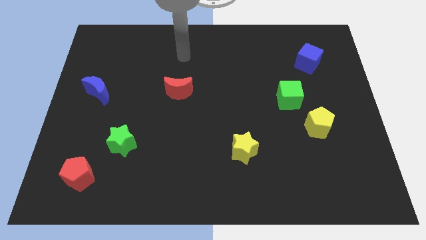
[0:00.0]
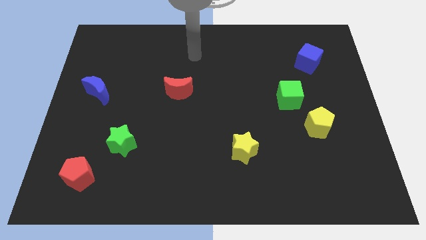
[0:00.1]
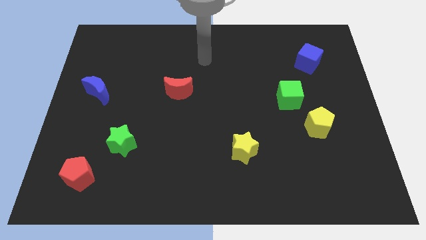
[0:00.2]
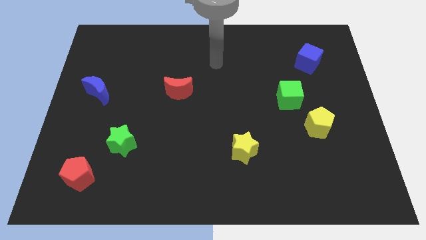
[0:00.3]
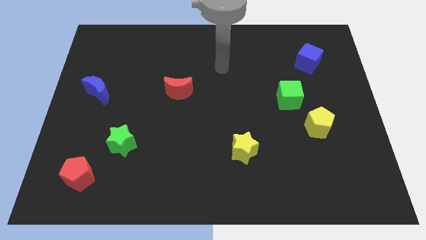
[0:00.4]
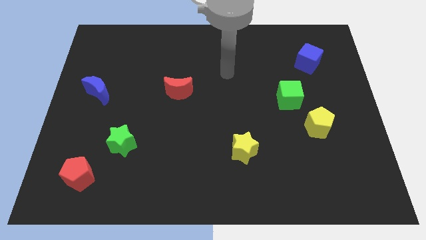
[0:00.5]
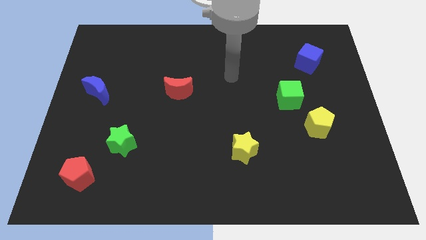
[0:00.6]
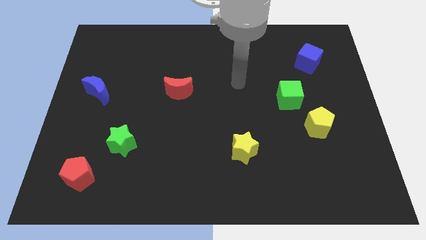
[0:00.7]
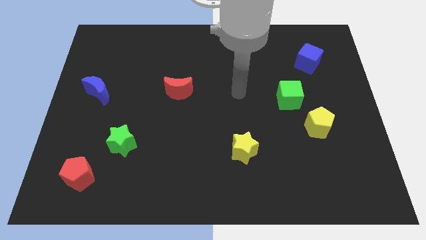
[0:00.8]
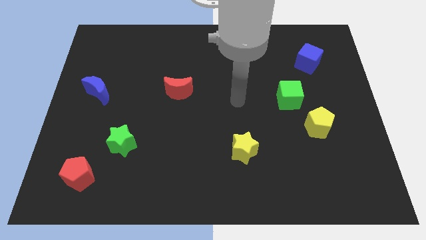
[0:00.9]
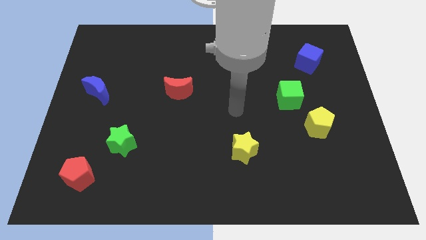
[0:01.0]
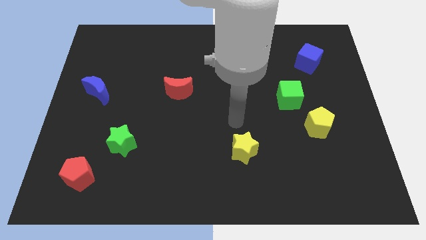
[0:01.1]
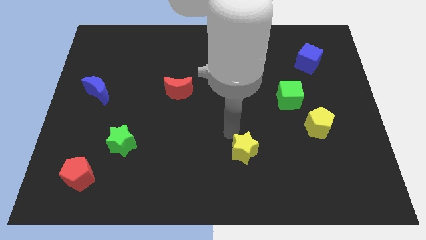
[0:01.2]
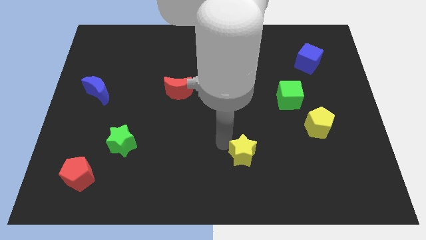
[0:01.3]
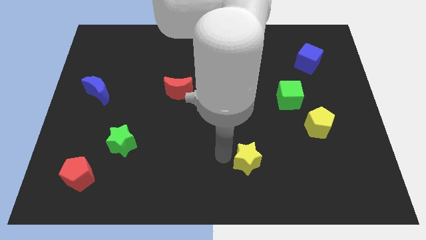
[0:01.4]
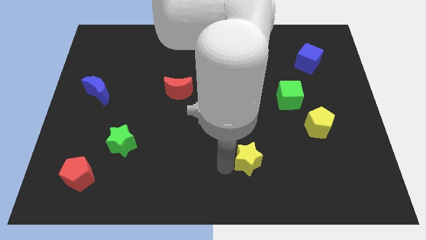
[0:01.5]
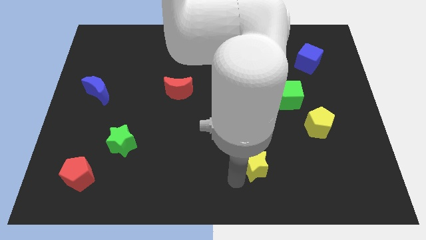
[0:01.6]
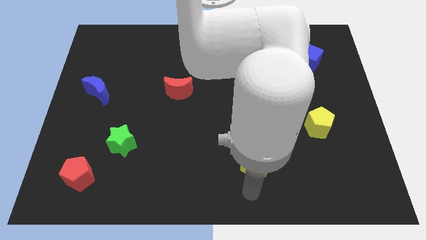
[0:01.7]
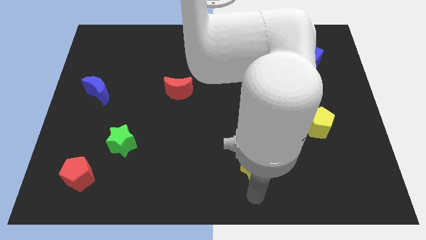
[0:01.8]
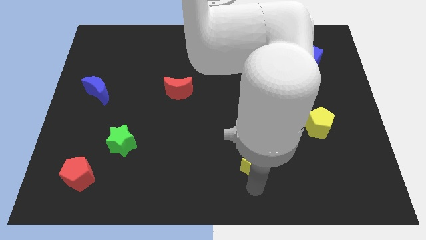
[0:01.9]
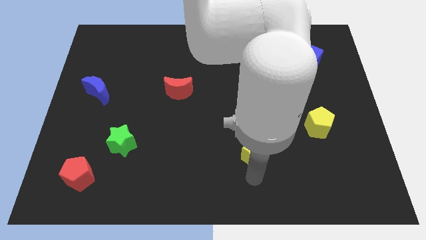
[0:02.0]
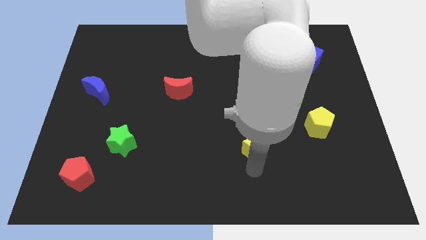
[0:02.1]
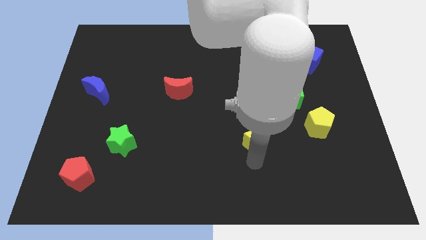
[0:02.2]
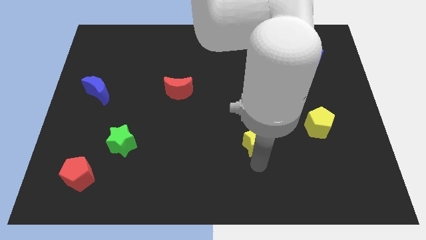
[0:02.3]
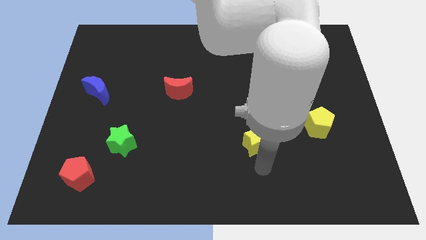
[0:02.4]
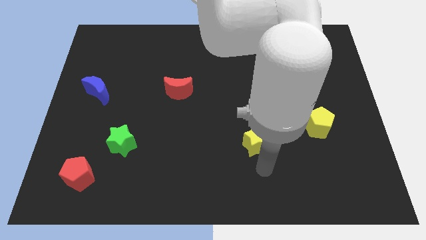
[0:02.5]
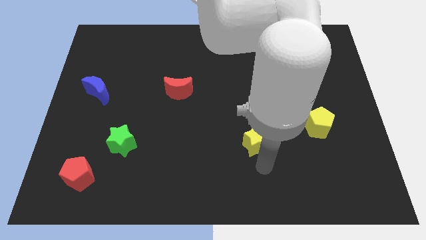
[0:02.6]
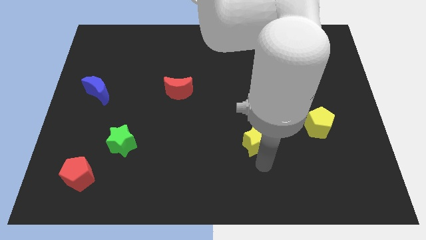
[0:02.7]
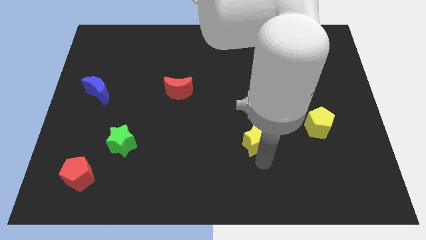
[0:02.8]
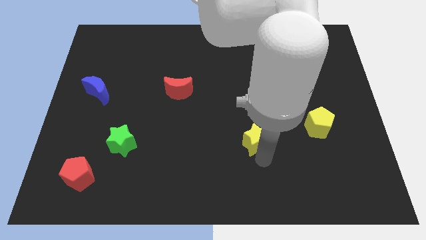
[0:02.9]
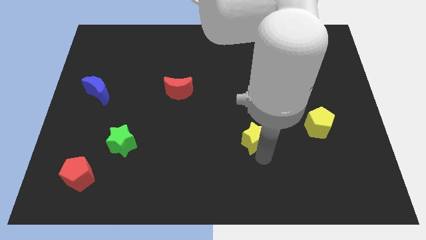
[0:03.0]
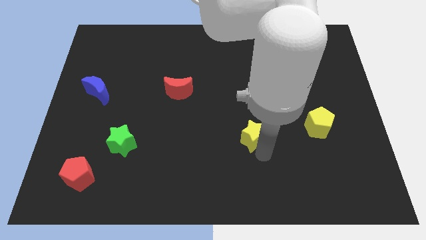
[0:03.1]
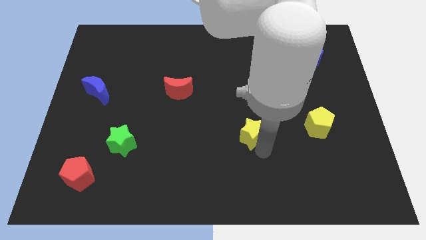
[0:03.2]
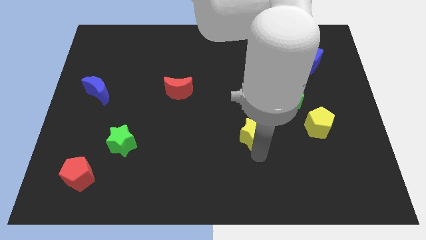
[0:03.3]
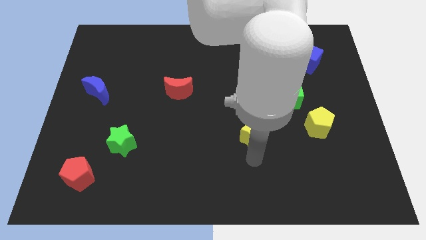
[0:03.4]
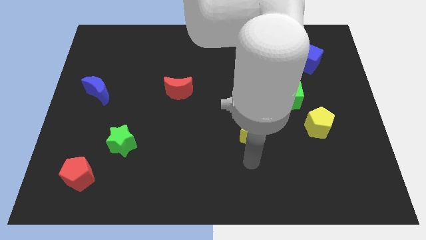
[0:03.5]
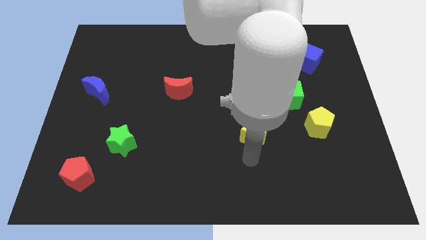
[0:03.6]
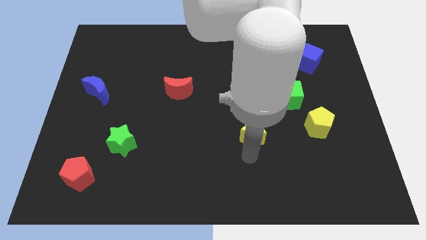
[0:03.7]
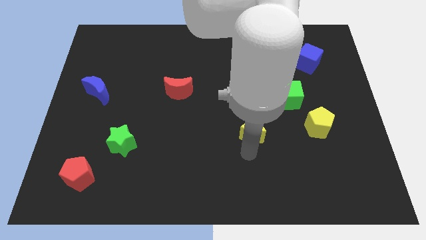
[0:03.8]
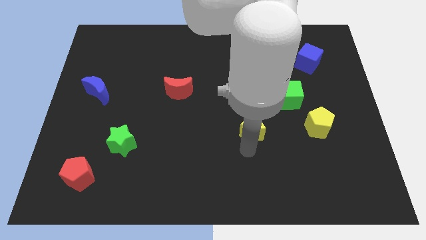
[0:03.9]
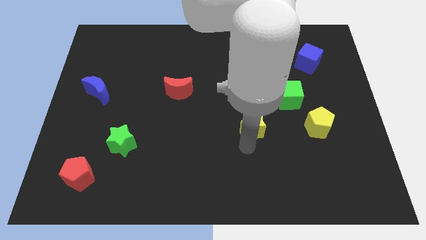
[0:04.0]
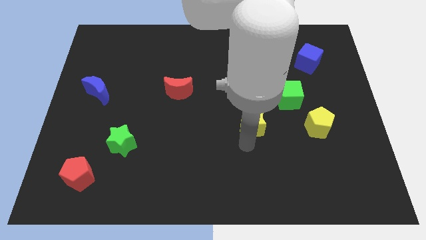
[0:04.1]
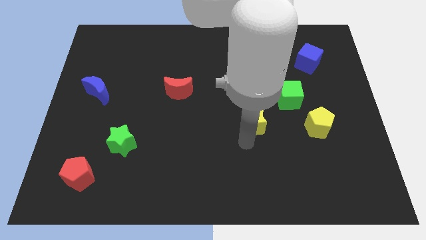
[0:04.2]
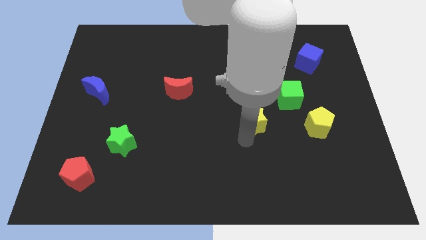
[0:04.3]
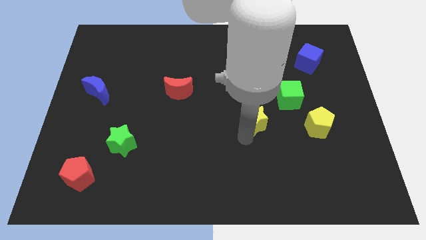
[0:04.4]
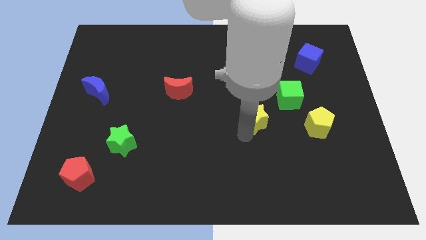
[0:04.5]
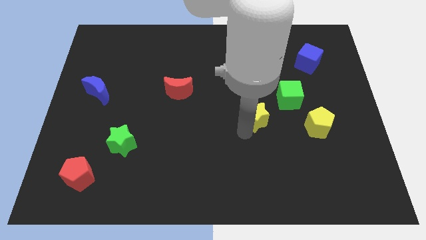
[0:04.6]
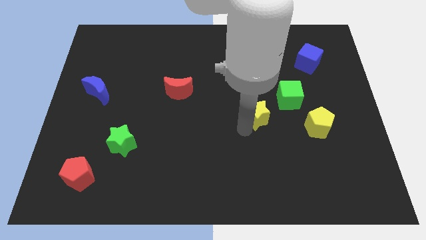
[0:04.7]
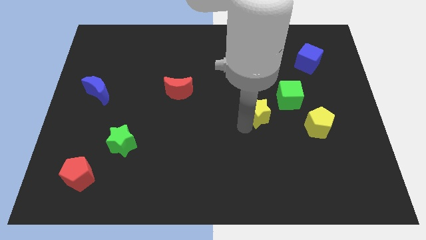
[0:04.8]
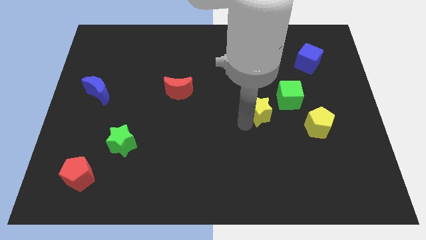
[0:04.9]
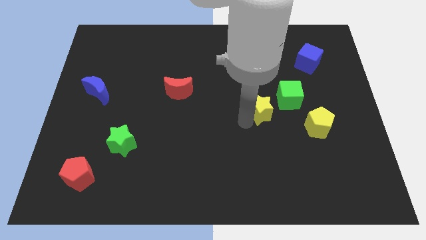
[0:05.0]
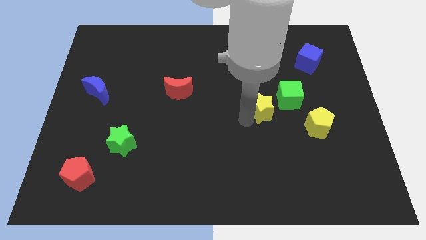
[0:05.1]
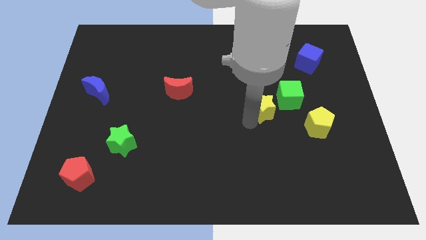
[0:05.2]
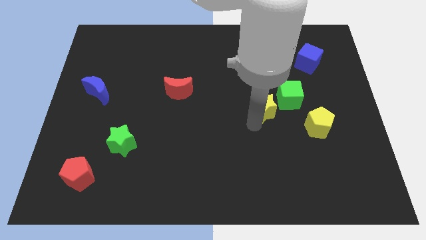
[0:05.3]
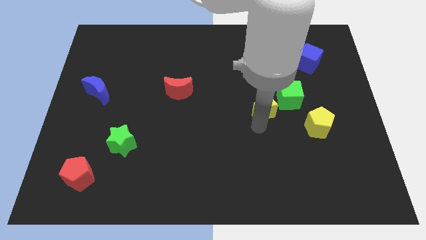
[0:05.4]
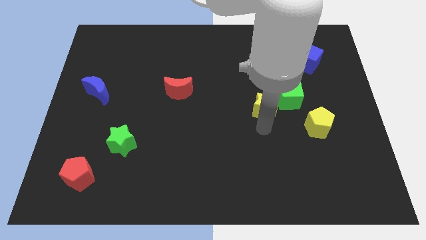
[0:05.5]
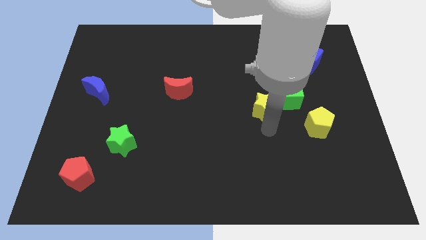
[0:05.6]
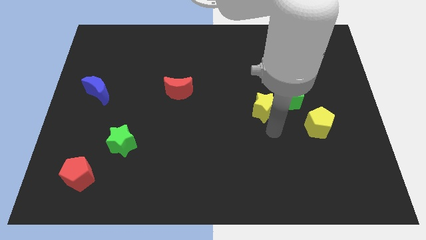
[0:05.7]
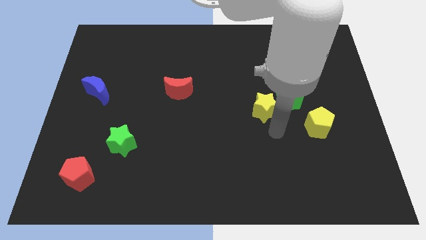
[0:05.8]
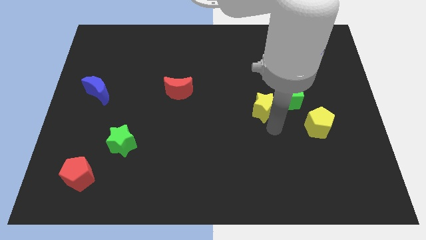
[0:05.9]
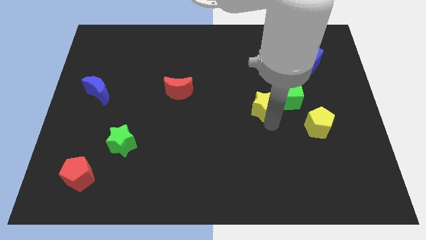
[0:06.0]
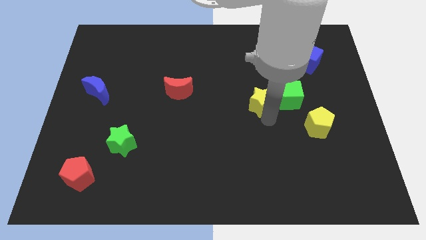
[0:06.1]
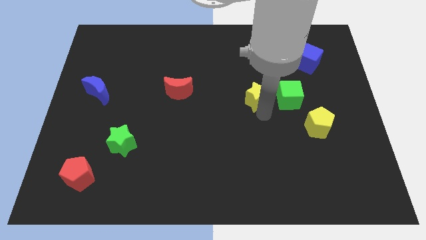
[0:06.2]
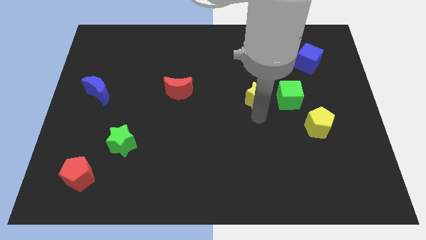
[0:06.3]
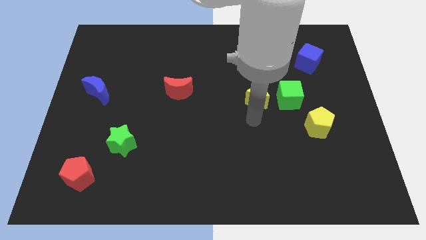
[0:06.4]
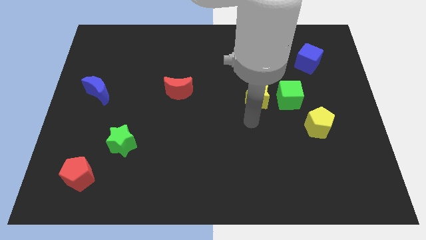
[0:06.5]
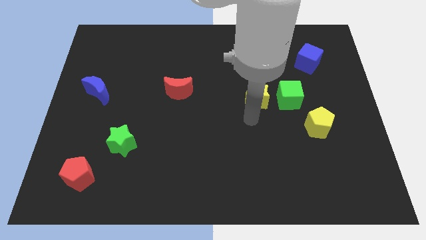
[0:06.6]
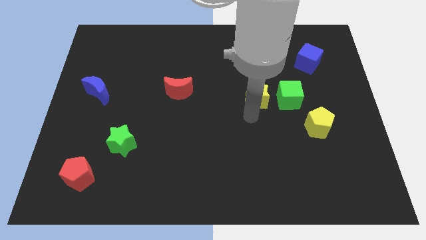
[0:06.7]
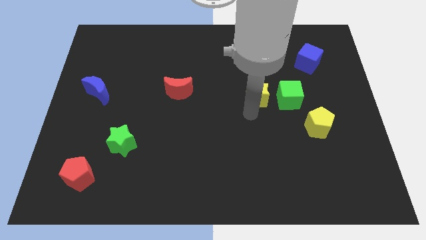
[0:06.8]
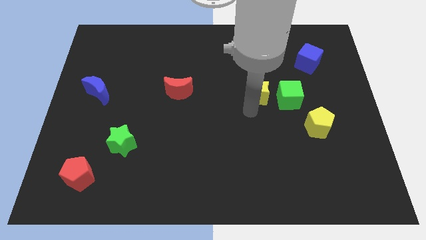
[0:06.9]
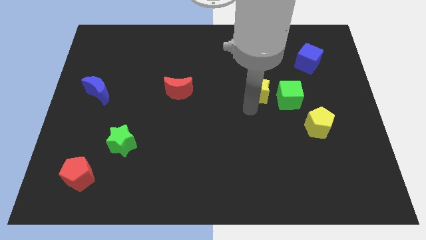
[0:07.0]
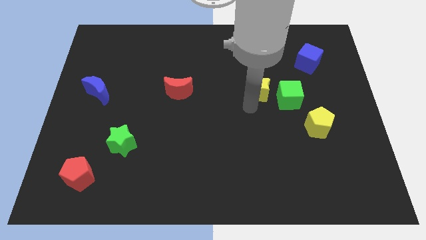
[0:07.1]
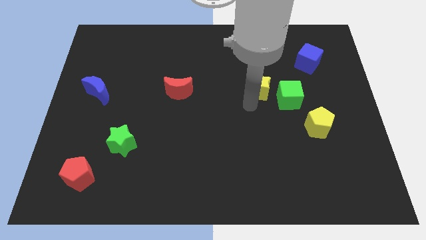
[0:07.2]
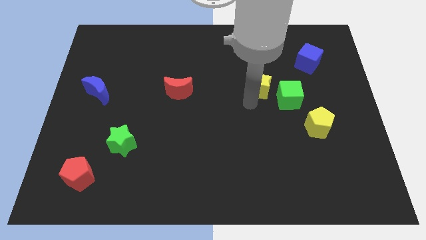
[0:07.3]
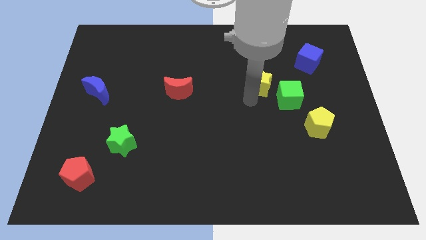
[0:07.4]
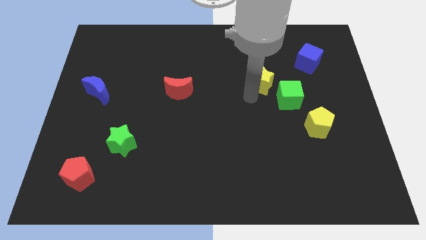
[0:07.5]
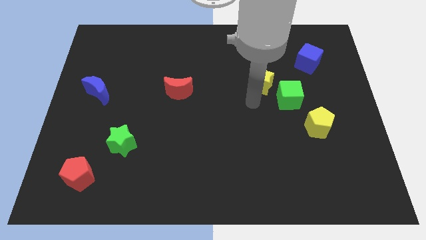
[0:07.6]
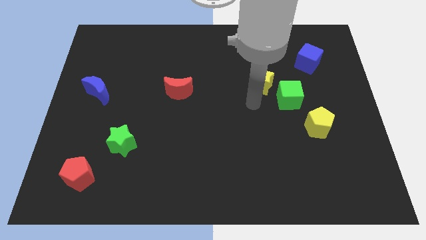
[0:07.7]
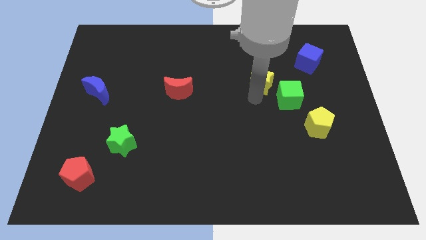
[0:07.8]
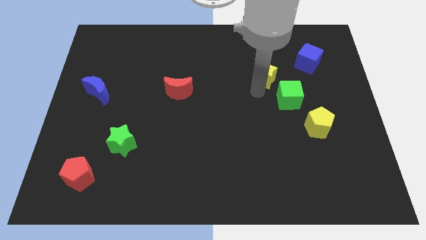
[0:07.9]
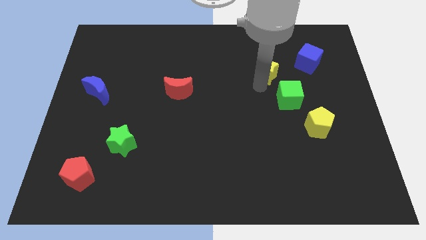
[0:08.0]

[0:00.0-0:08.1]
slide the yellow star left of the blue cube
